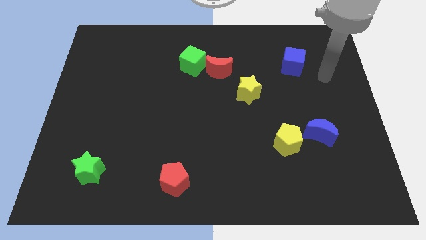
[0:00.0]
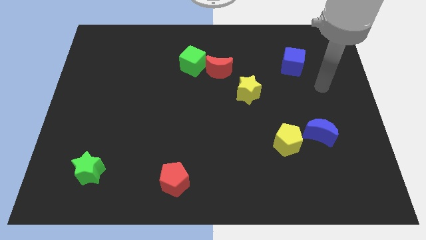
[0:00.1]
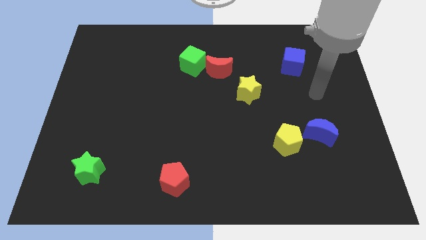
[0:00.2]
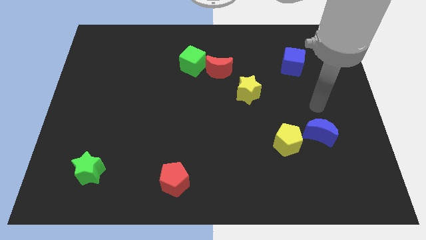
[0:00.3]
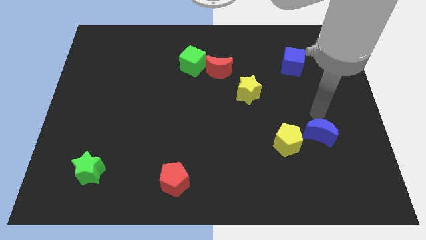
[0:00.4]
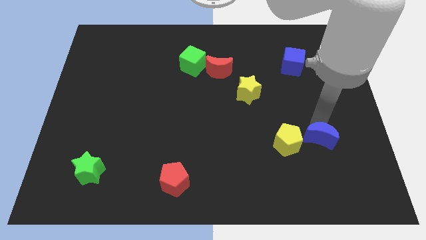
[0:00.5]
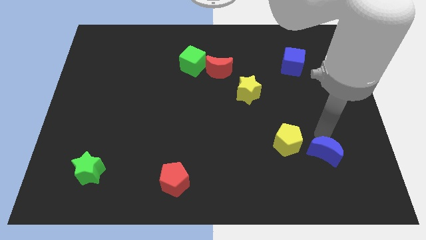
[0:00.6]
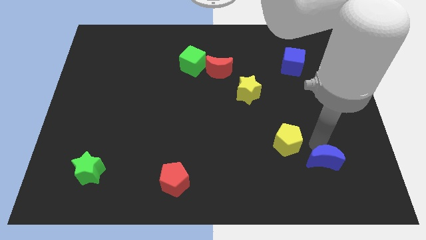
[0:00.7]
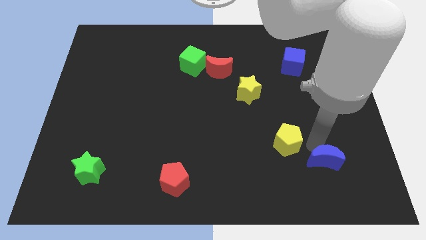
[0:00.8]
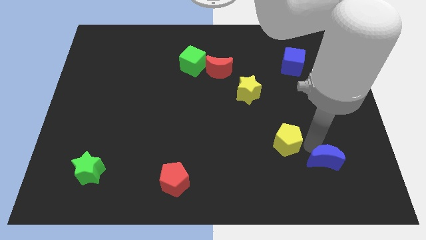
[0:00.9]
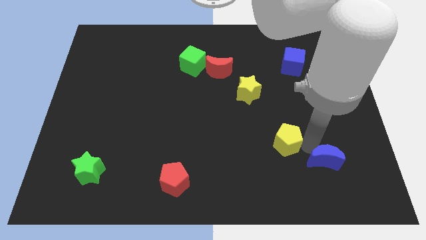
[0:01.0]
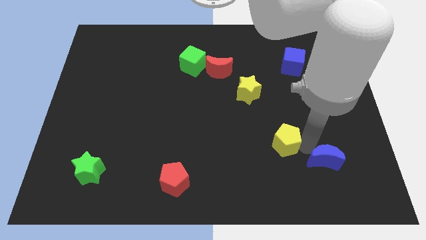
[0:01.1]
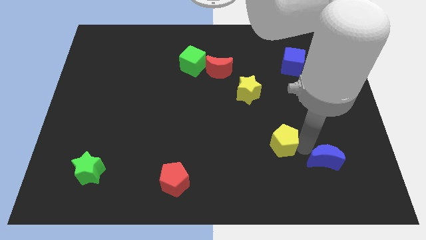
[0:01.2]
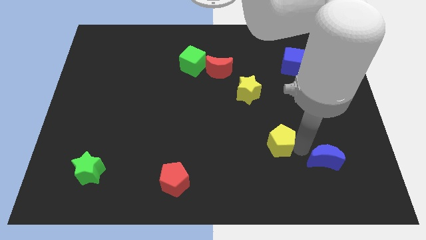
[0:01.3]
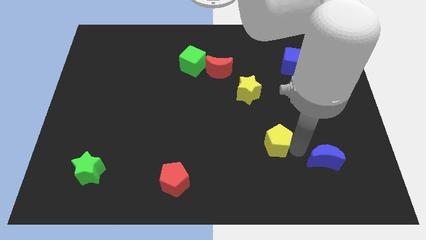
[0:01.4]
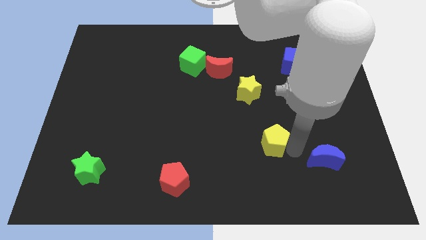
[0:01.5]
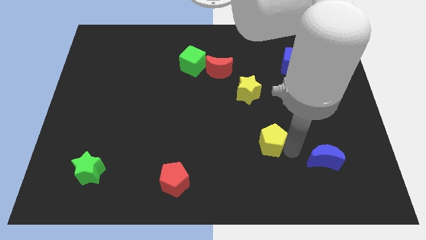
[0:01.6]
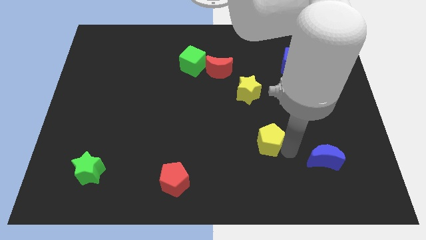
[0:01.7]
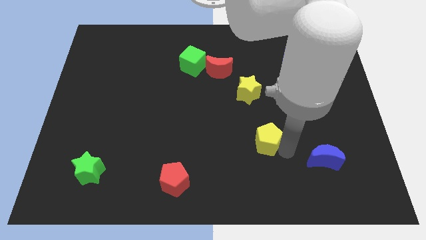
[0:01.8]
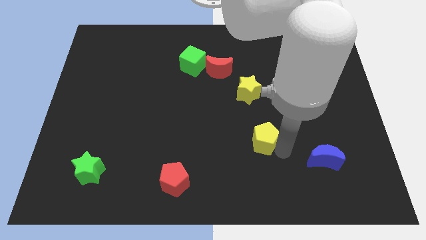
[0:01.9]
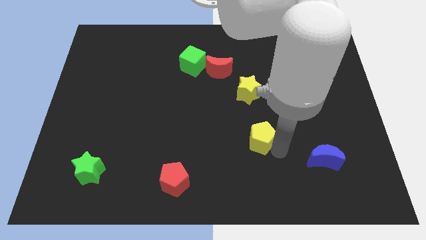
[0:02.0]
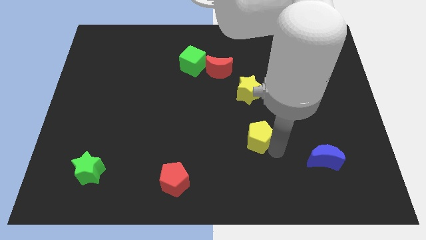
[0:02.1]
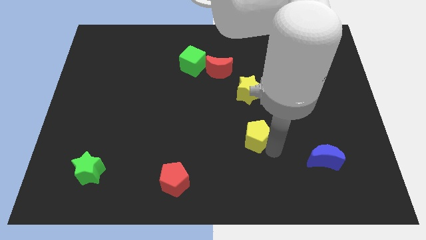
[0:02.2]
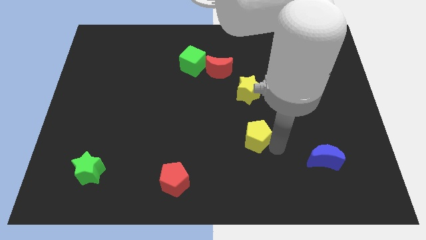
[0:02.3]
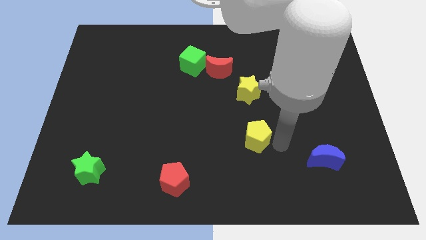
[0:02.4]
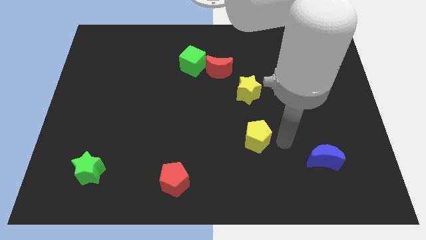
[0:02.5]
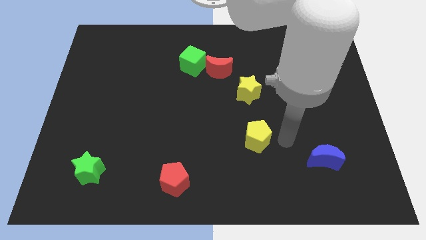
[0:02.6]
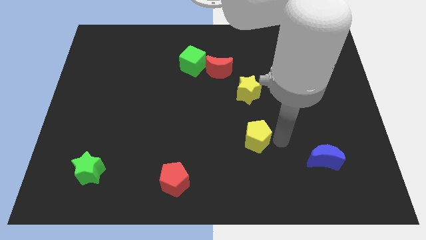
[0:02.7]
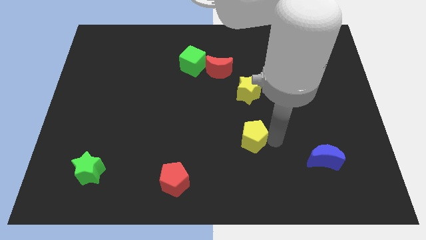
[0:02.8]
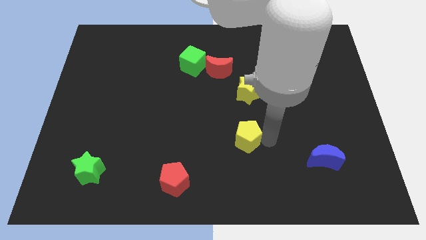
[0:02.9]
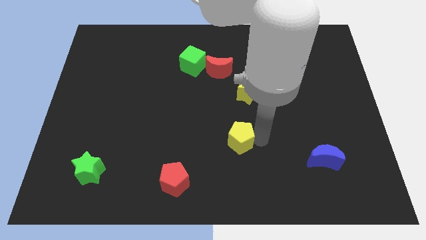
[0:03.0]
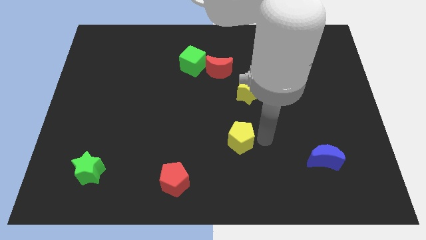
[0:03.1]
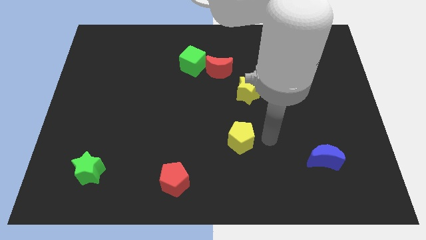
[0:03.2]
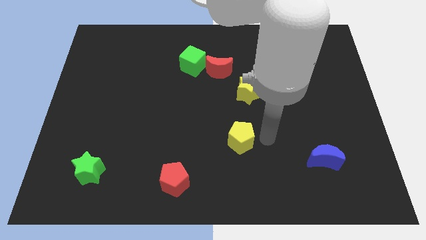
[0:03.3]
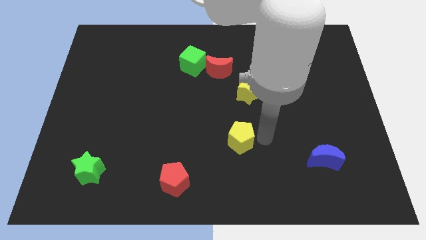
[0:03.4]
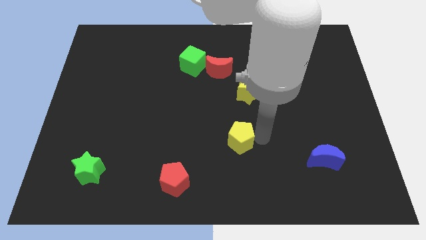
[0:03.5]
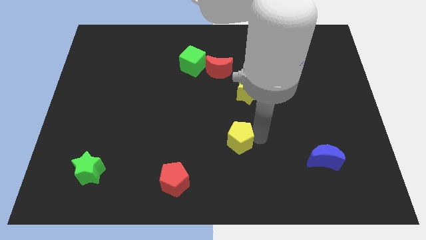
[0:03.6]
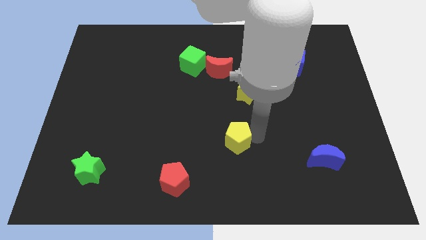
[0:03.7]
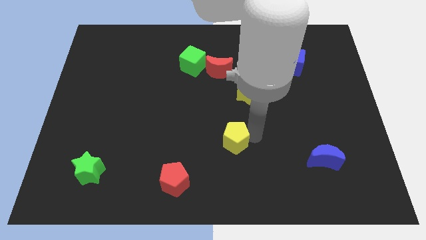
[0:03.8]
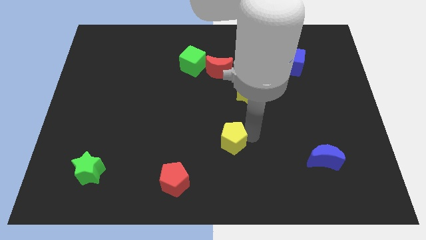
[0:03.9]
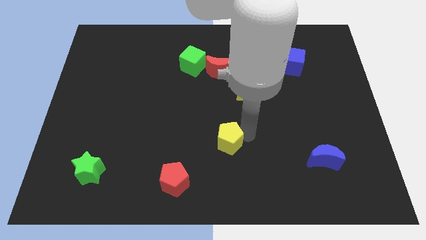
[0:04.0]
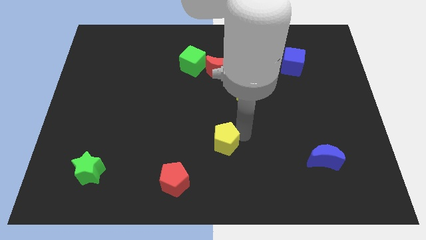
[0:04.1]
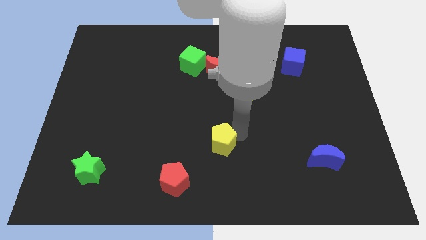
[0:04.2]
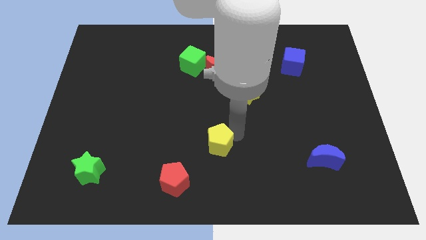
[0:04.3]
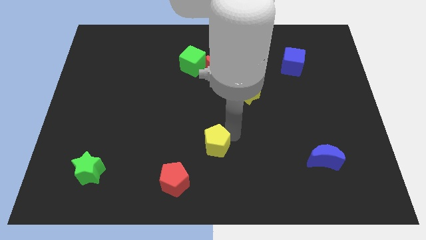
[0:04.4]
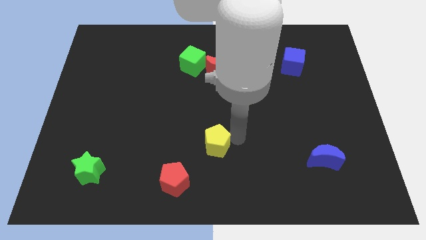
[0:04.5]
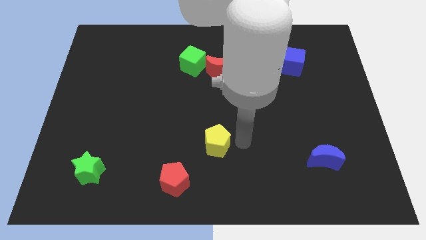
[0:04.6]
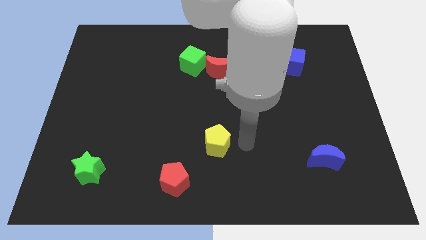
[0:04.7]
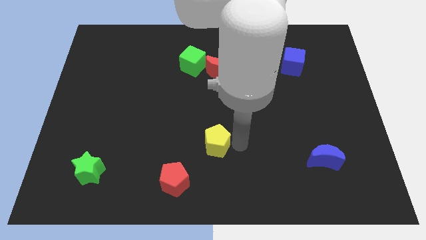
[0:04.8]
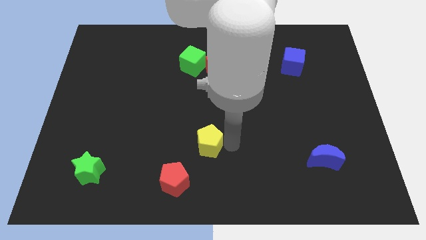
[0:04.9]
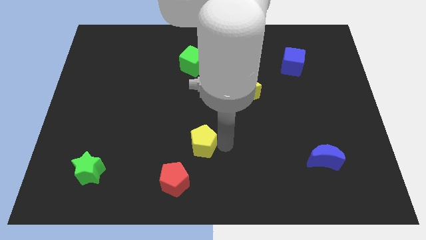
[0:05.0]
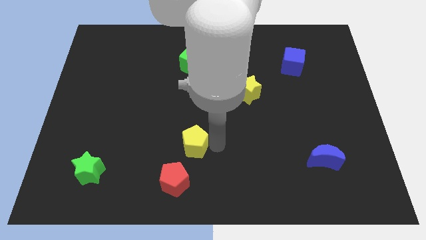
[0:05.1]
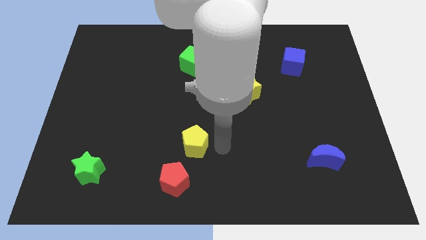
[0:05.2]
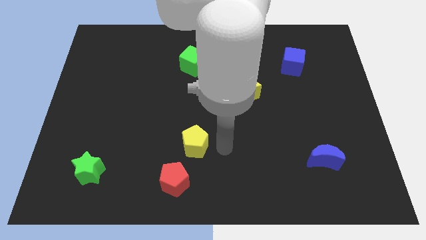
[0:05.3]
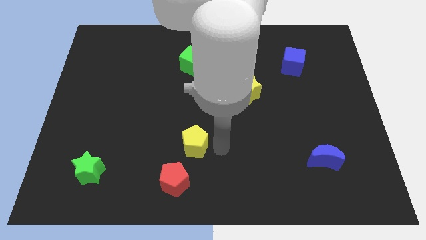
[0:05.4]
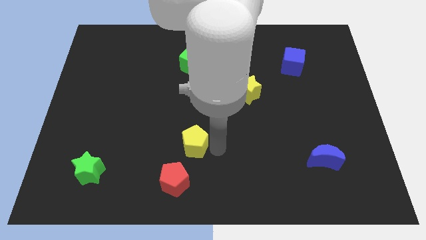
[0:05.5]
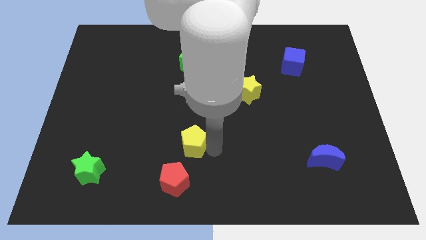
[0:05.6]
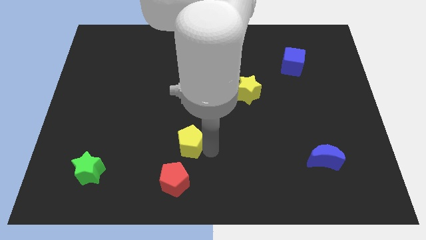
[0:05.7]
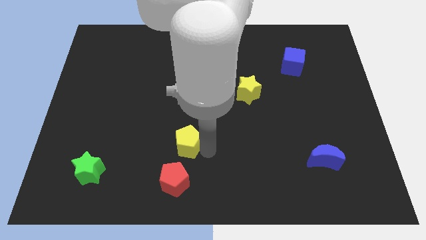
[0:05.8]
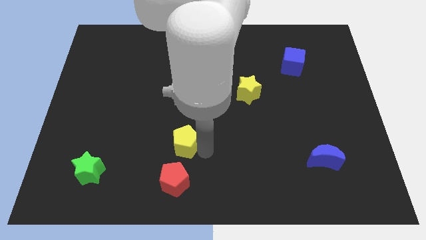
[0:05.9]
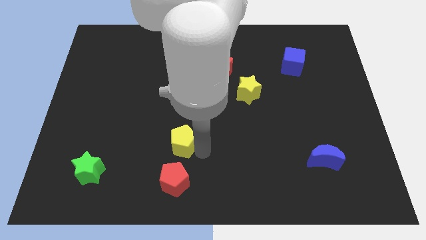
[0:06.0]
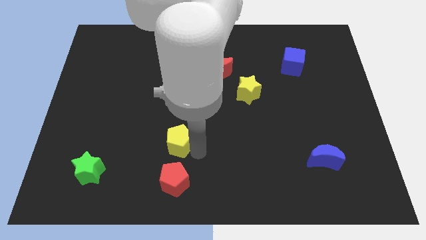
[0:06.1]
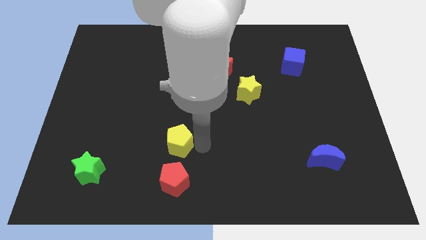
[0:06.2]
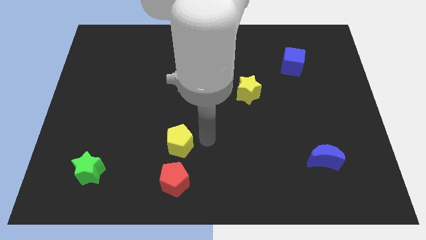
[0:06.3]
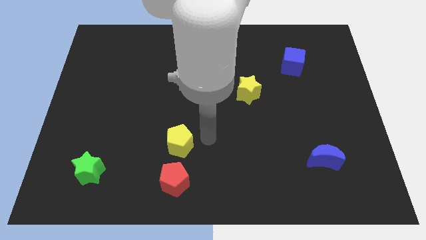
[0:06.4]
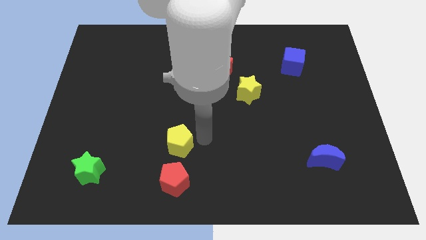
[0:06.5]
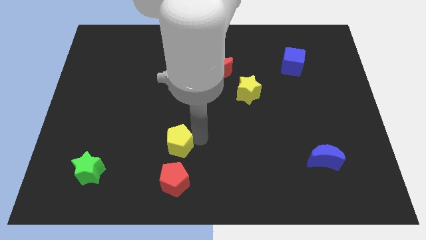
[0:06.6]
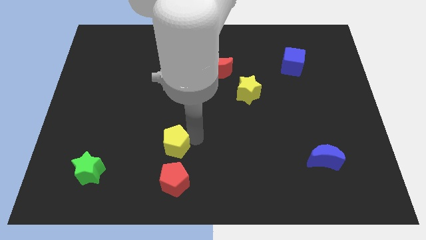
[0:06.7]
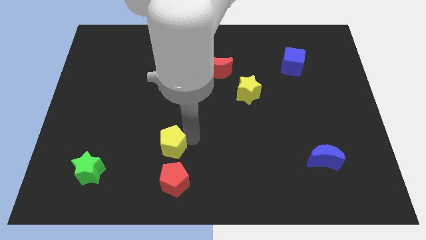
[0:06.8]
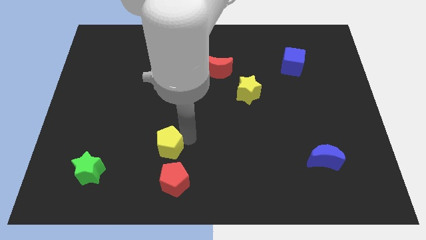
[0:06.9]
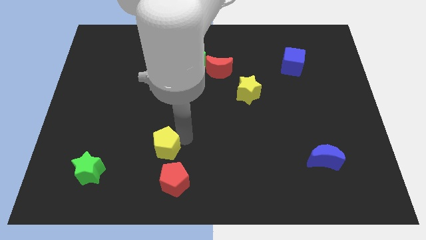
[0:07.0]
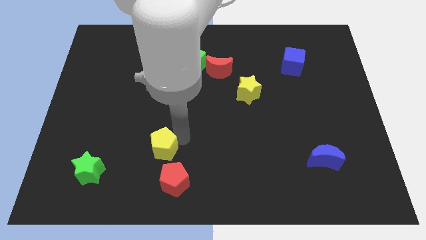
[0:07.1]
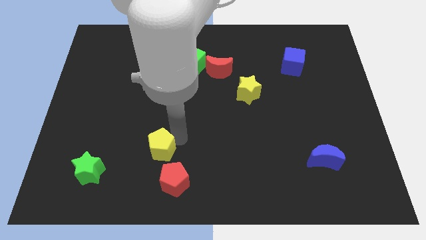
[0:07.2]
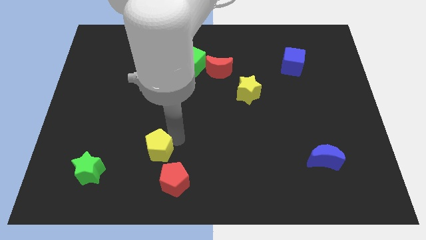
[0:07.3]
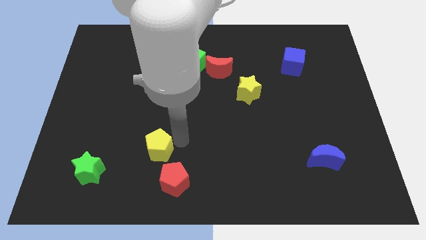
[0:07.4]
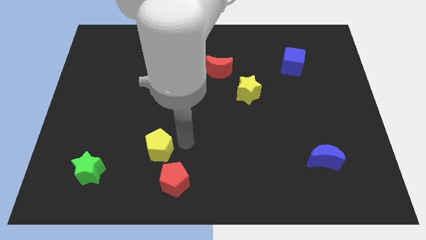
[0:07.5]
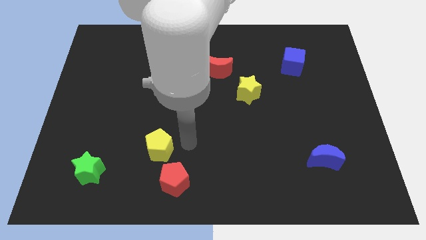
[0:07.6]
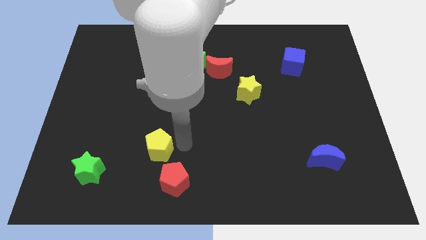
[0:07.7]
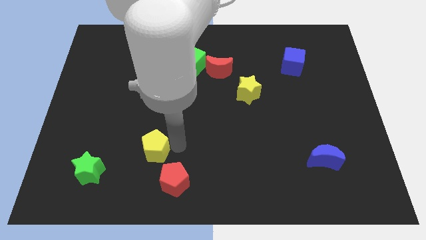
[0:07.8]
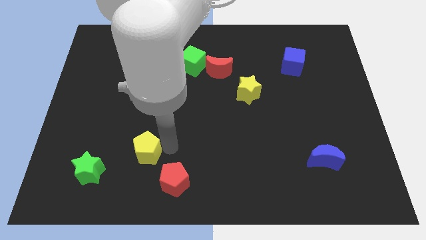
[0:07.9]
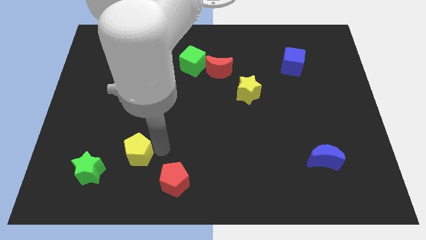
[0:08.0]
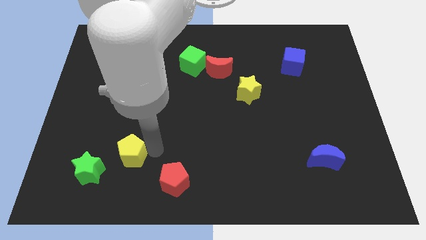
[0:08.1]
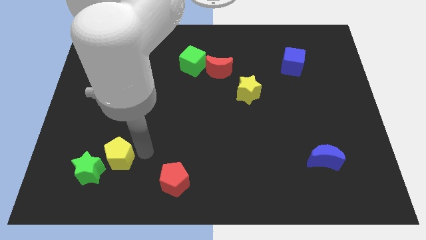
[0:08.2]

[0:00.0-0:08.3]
slide the yellow pentagon to the green star
